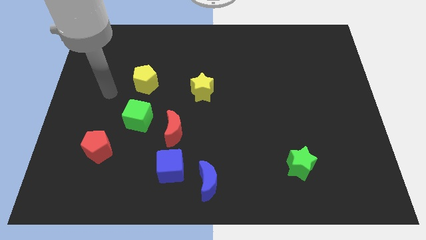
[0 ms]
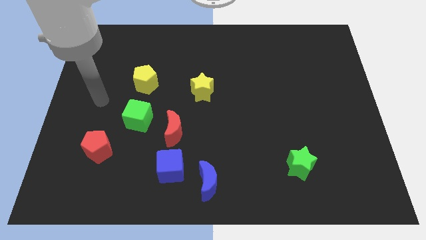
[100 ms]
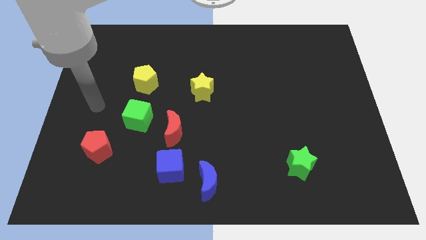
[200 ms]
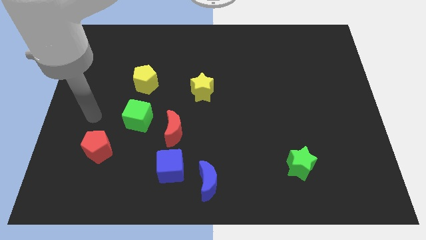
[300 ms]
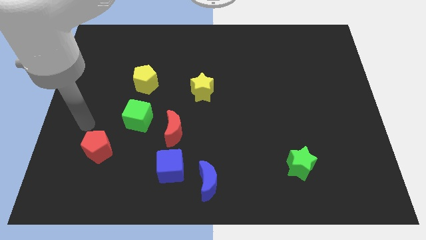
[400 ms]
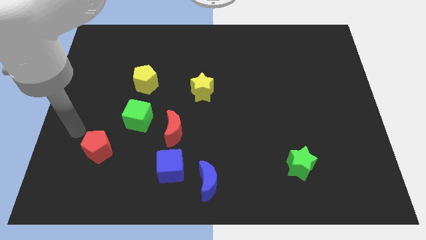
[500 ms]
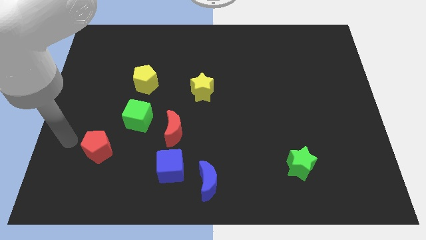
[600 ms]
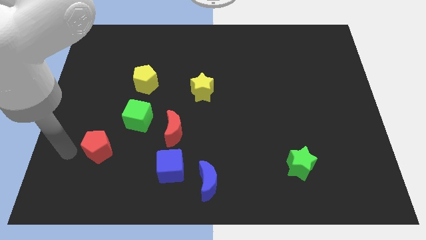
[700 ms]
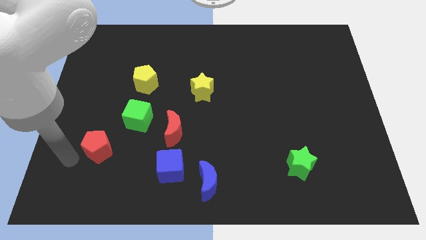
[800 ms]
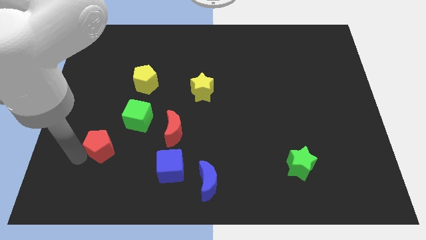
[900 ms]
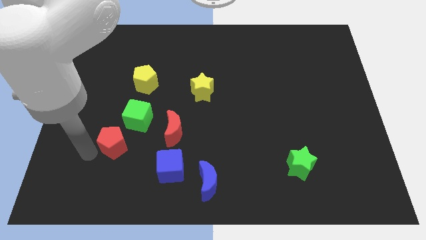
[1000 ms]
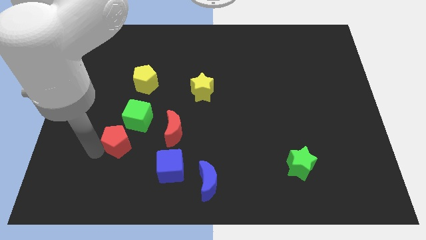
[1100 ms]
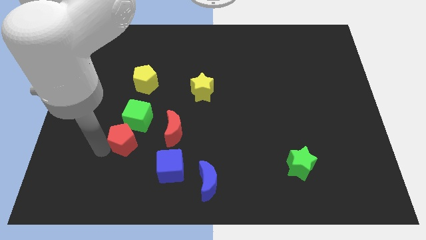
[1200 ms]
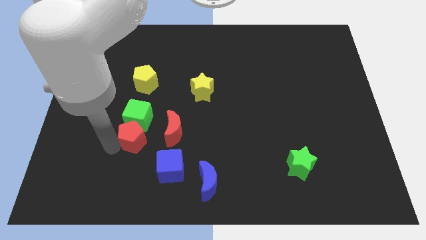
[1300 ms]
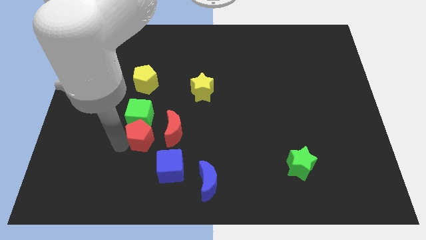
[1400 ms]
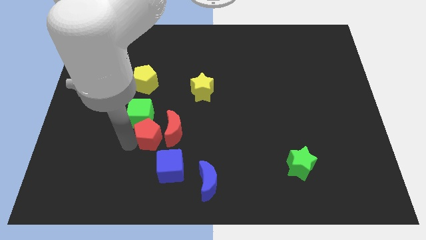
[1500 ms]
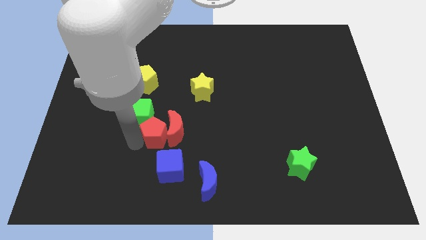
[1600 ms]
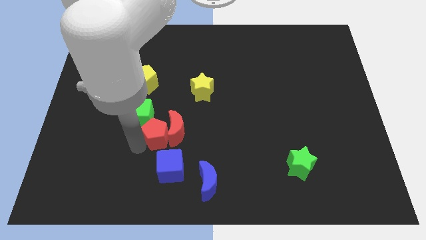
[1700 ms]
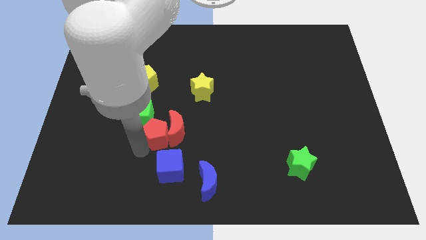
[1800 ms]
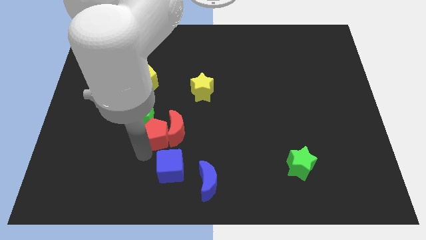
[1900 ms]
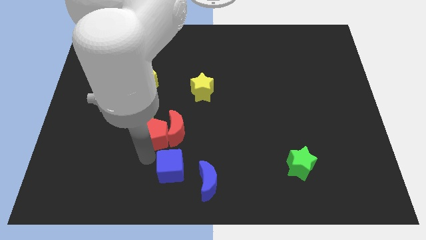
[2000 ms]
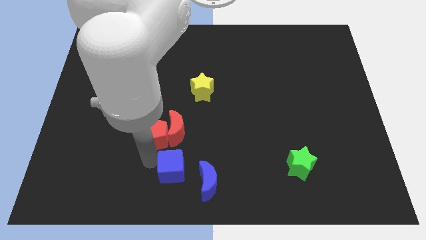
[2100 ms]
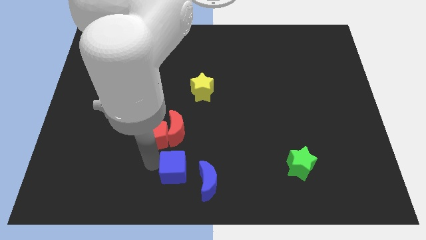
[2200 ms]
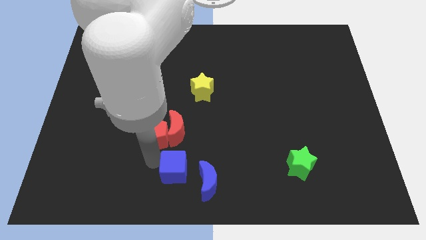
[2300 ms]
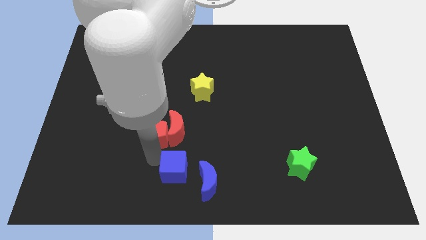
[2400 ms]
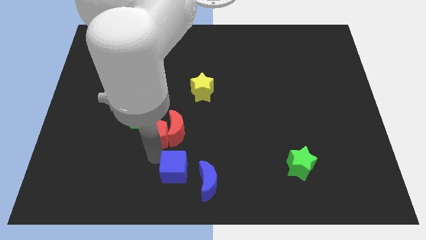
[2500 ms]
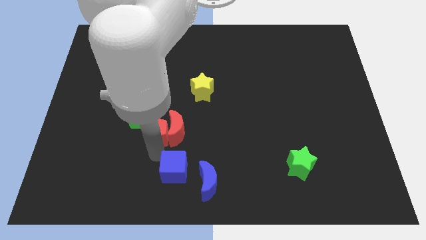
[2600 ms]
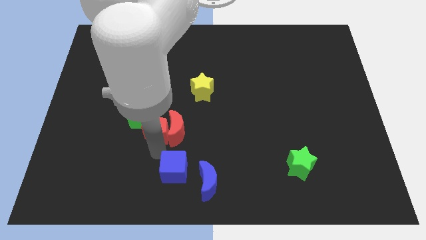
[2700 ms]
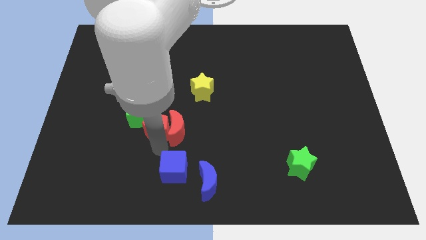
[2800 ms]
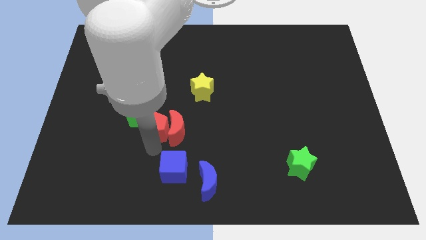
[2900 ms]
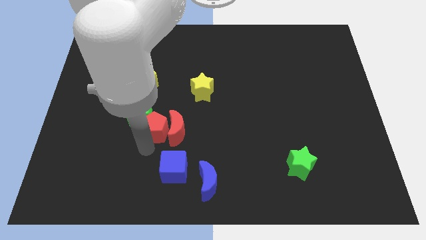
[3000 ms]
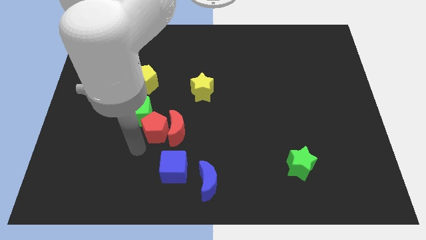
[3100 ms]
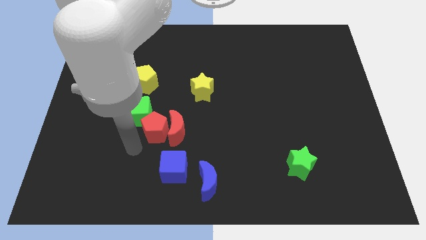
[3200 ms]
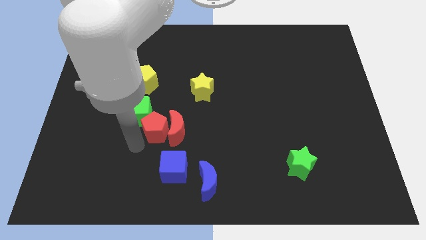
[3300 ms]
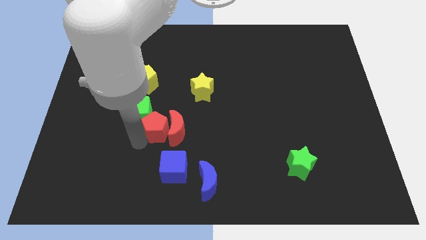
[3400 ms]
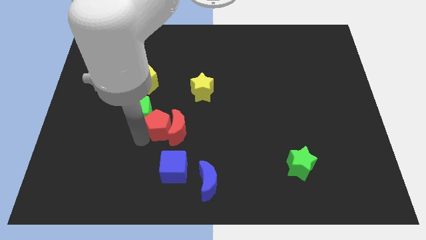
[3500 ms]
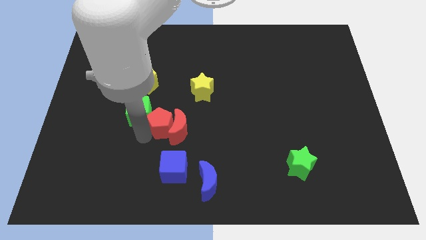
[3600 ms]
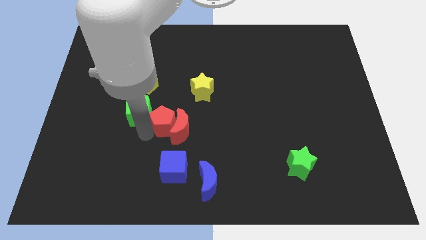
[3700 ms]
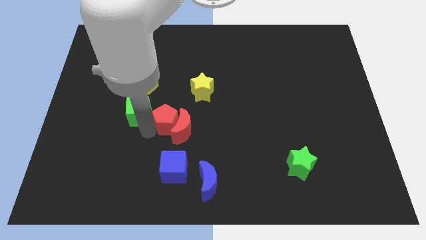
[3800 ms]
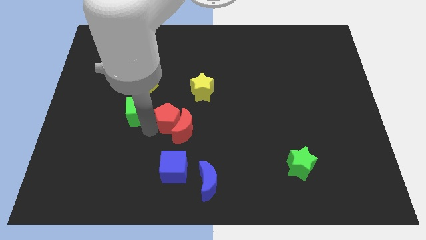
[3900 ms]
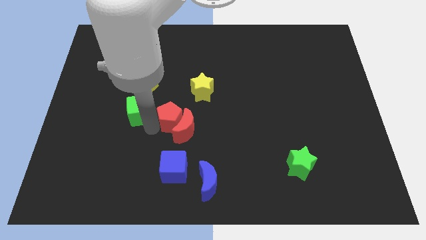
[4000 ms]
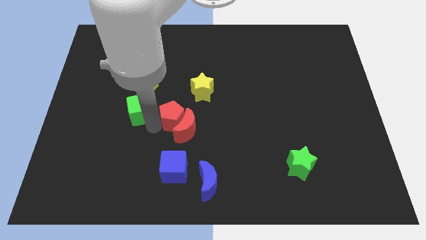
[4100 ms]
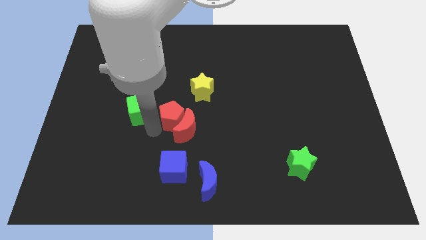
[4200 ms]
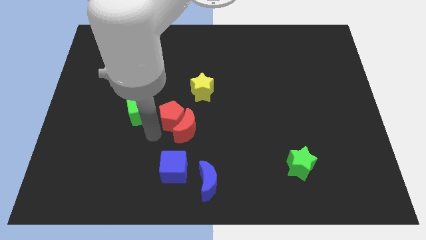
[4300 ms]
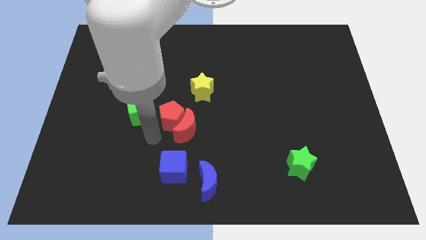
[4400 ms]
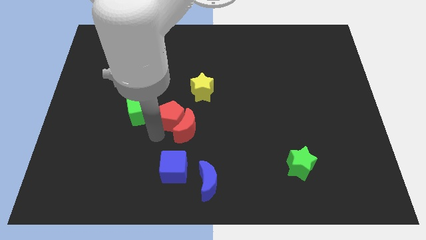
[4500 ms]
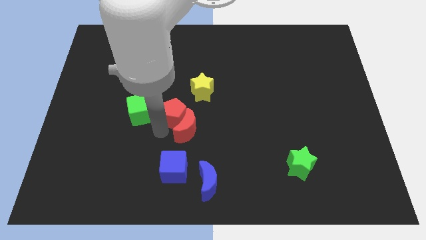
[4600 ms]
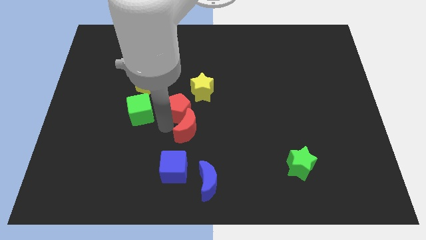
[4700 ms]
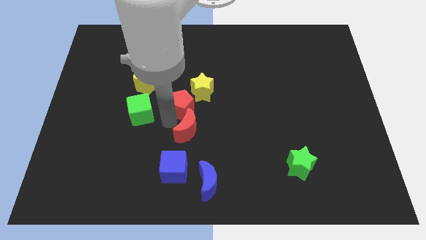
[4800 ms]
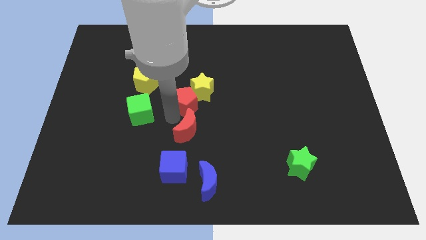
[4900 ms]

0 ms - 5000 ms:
slide the red pentagon towards the yellow star

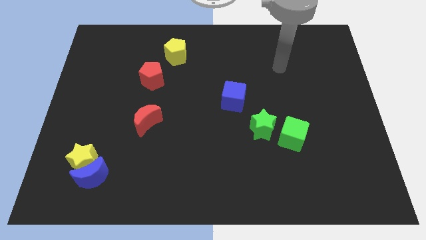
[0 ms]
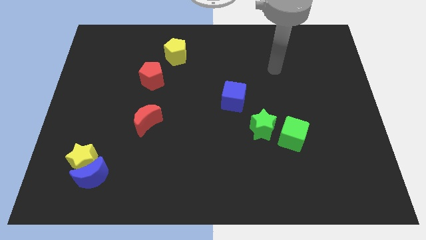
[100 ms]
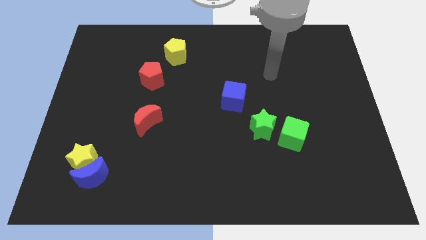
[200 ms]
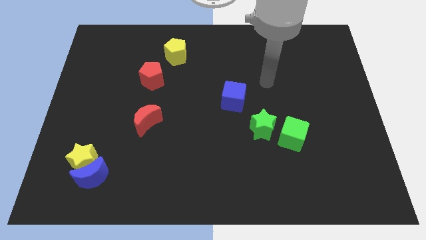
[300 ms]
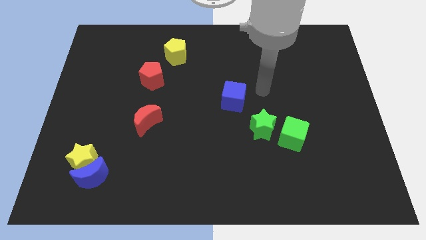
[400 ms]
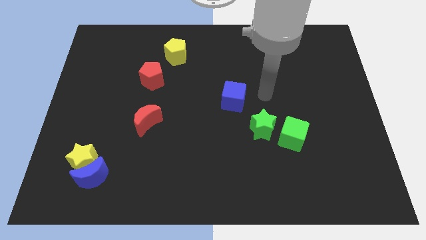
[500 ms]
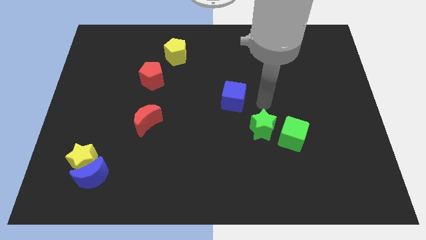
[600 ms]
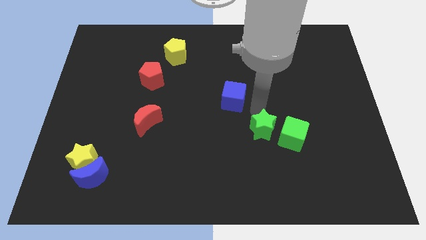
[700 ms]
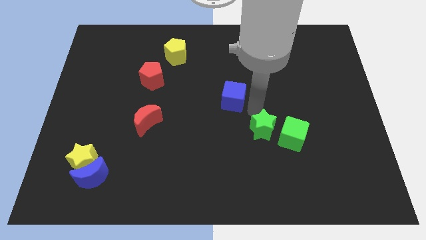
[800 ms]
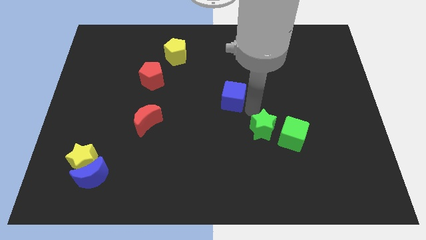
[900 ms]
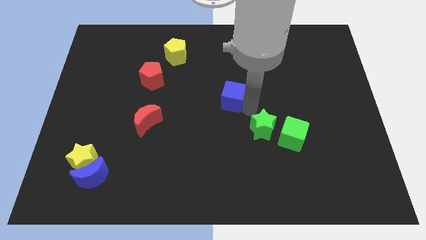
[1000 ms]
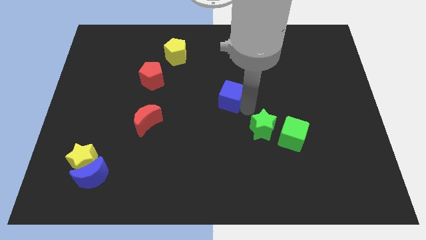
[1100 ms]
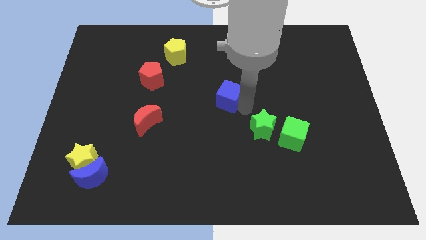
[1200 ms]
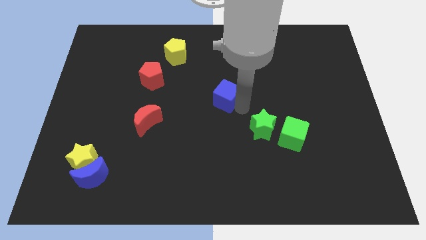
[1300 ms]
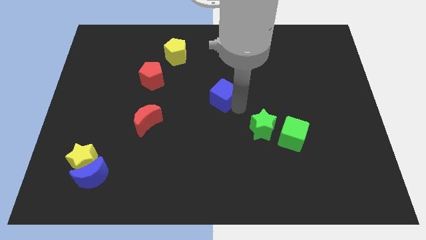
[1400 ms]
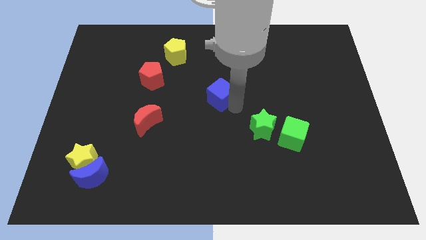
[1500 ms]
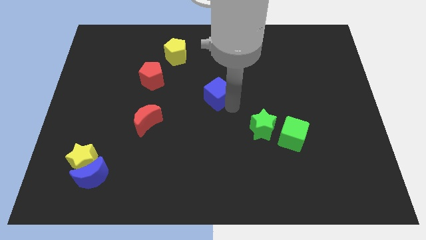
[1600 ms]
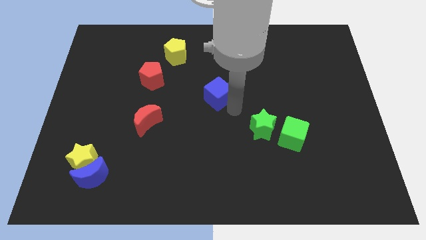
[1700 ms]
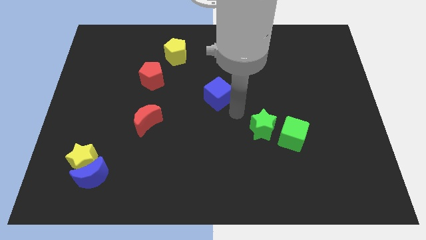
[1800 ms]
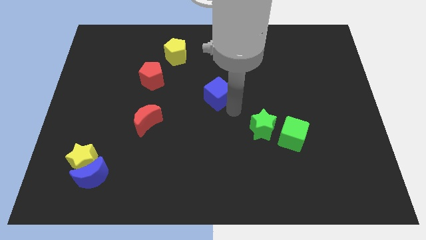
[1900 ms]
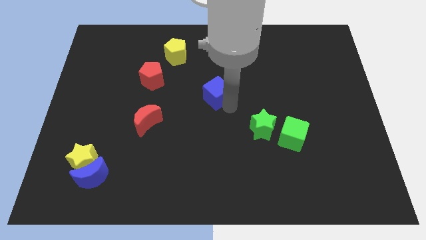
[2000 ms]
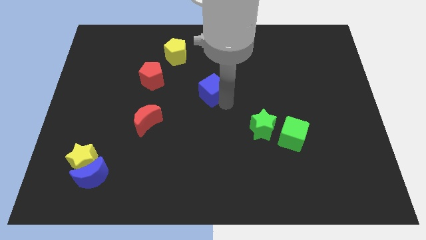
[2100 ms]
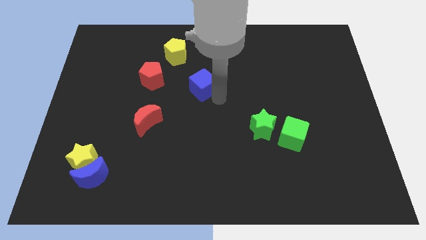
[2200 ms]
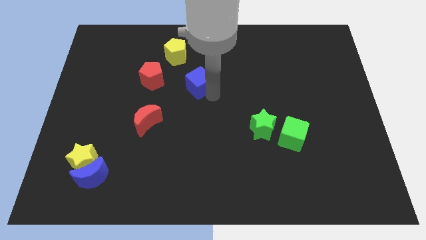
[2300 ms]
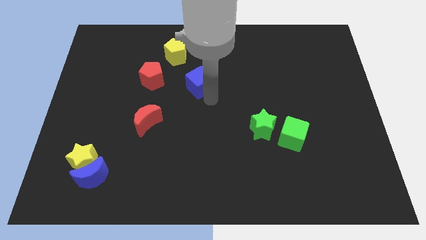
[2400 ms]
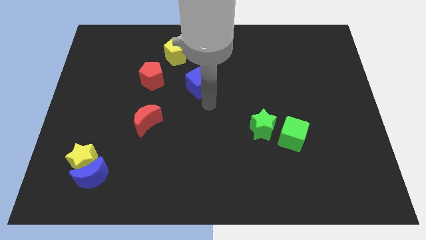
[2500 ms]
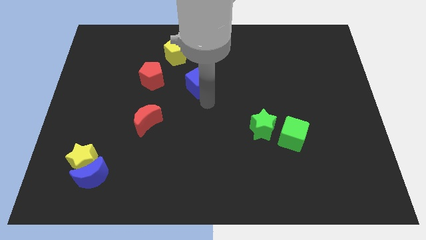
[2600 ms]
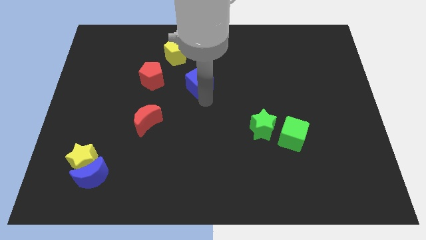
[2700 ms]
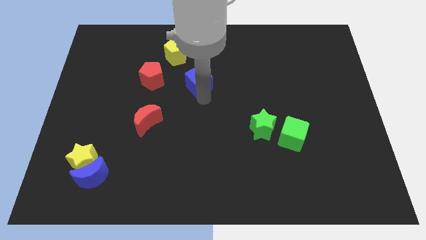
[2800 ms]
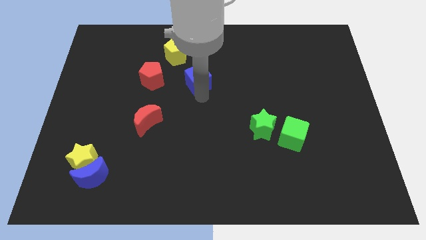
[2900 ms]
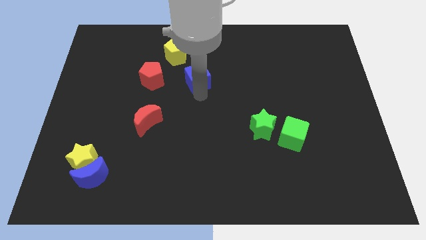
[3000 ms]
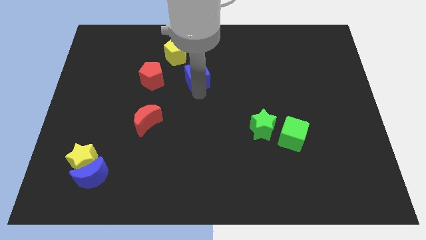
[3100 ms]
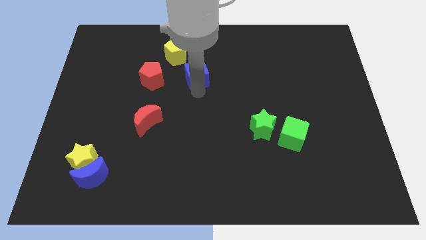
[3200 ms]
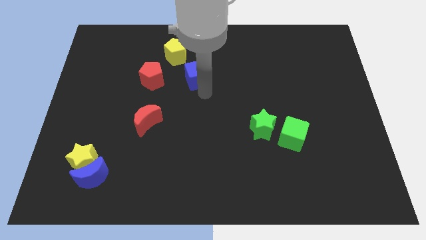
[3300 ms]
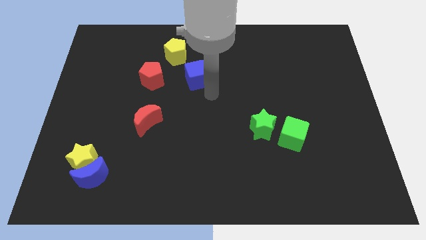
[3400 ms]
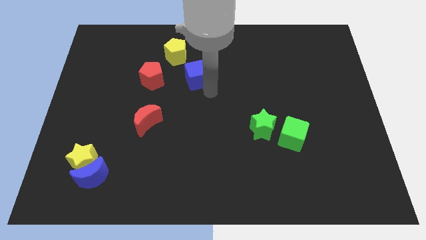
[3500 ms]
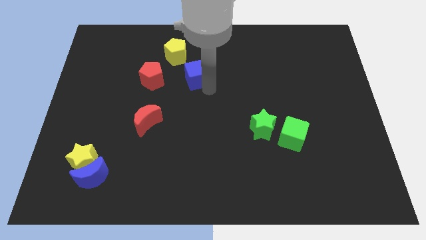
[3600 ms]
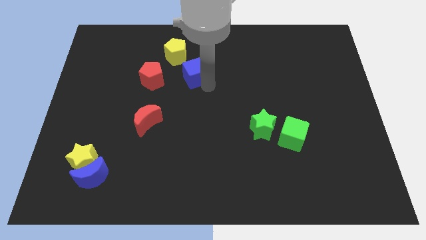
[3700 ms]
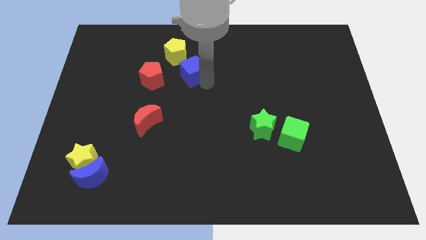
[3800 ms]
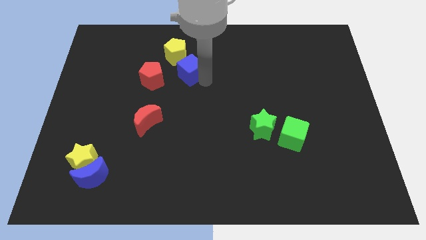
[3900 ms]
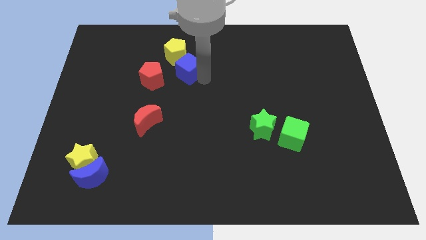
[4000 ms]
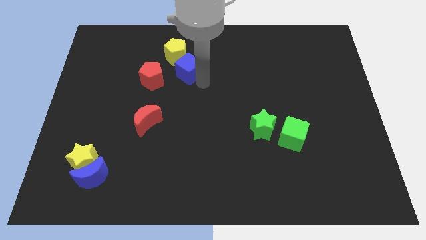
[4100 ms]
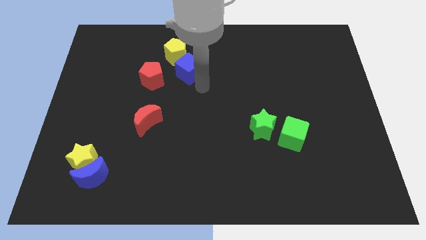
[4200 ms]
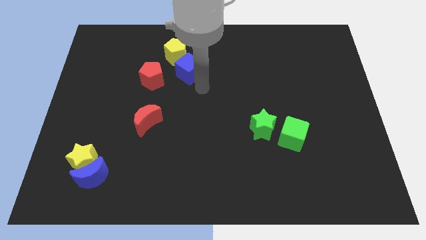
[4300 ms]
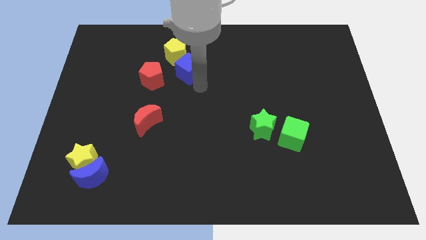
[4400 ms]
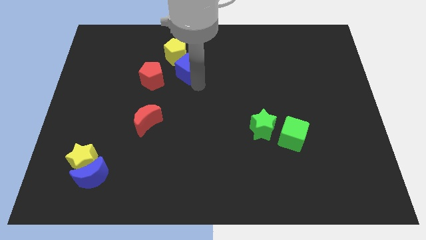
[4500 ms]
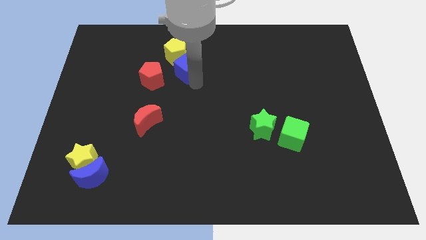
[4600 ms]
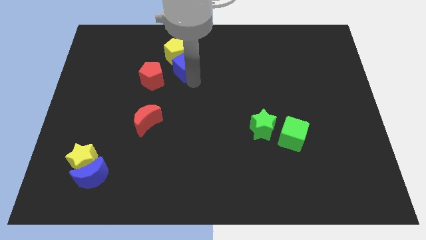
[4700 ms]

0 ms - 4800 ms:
put the blue cube close to the yellow pentagon
